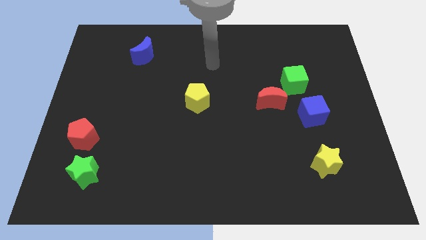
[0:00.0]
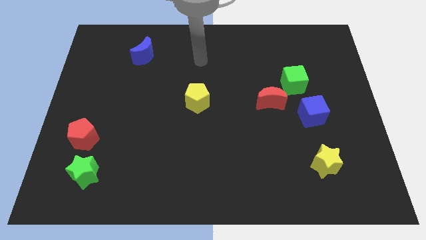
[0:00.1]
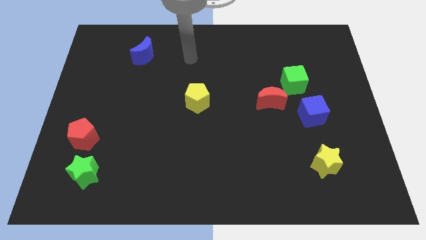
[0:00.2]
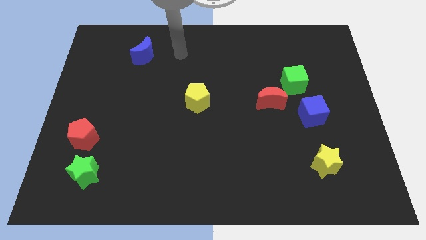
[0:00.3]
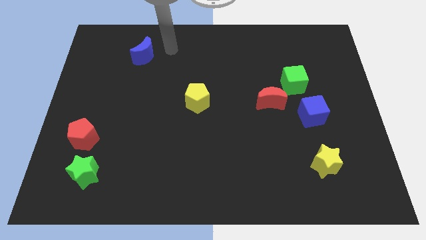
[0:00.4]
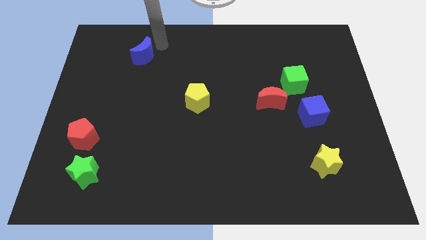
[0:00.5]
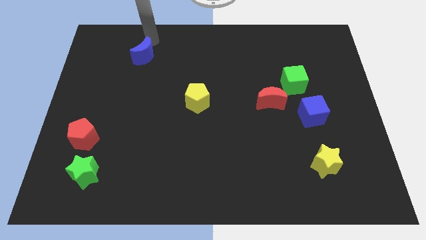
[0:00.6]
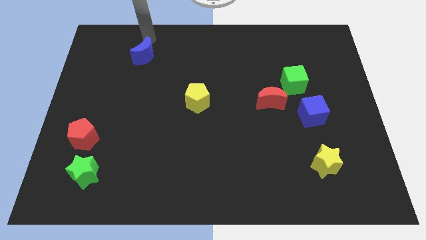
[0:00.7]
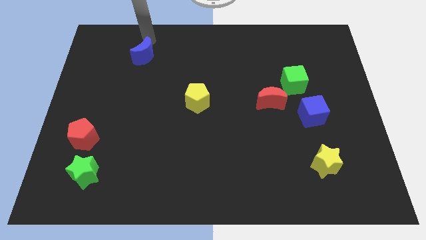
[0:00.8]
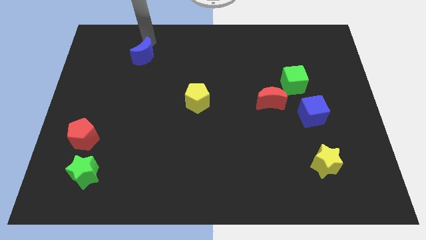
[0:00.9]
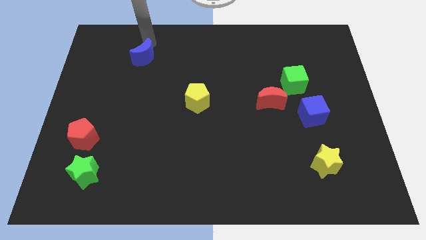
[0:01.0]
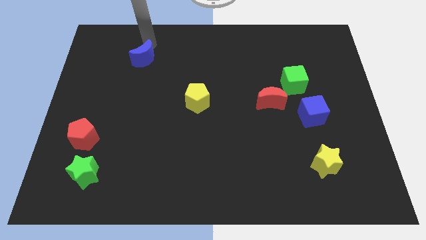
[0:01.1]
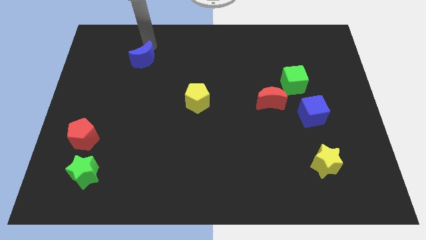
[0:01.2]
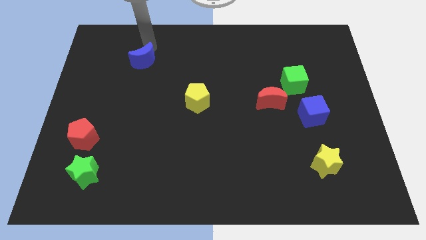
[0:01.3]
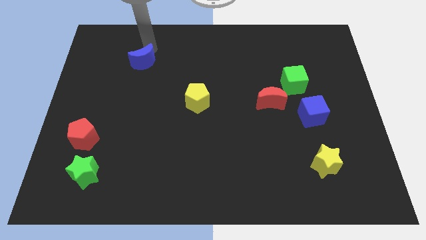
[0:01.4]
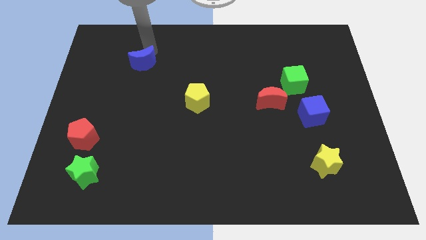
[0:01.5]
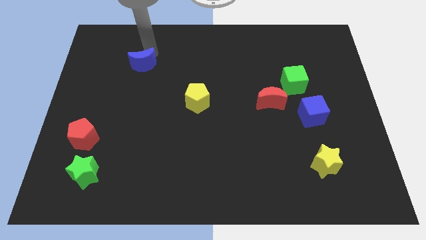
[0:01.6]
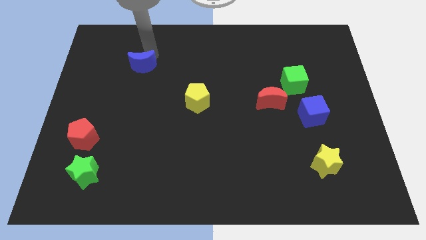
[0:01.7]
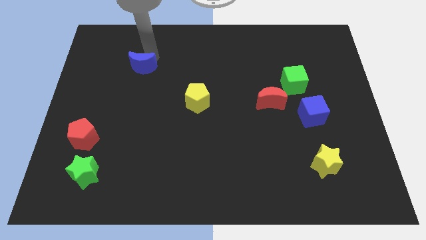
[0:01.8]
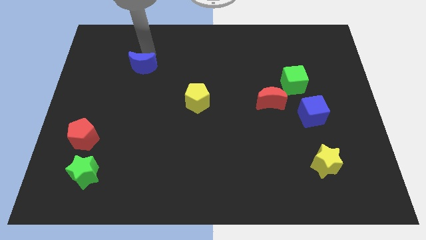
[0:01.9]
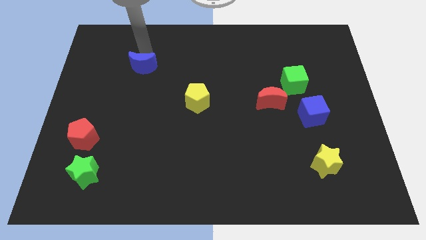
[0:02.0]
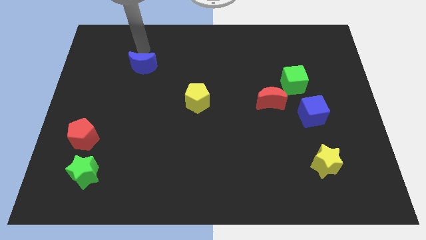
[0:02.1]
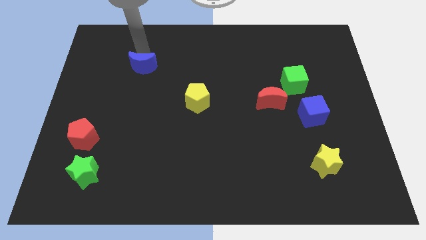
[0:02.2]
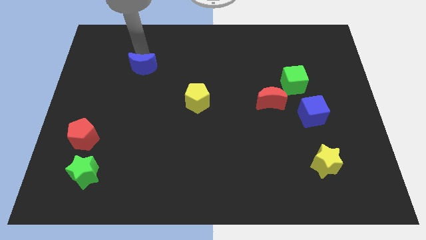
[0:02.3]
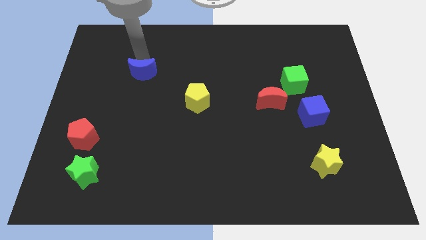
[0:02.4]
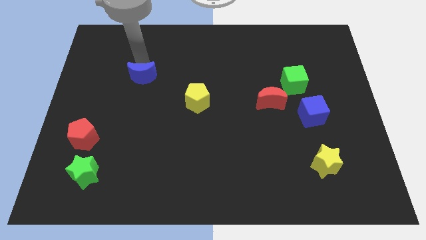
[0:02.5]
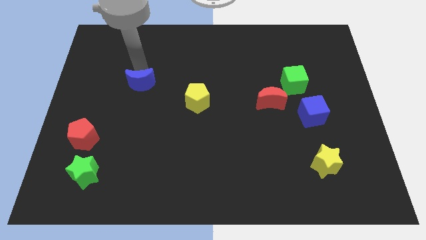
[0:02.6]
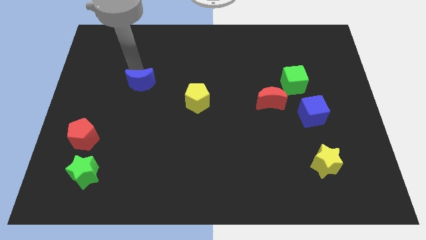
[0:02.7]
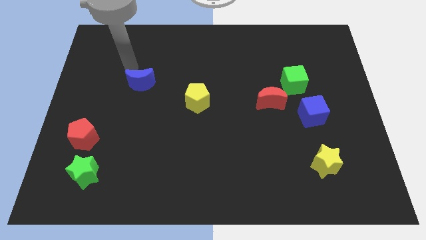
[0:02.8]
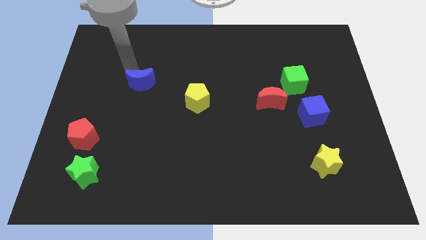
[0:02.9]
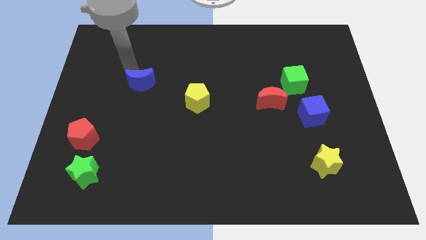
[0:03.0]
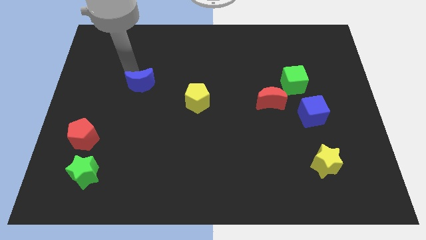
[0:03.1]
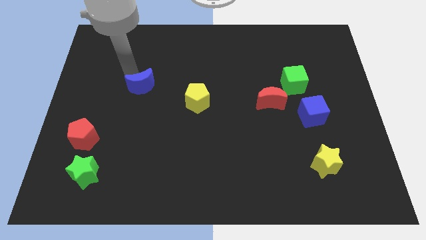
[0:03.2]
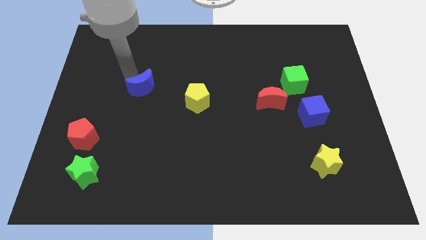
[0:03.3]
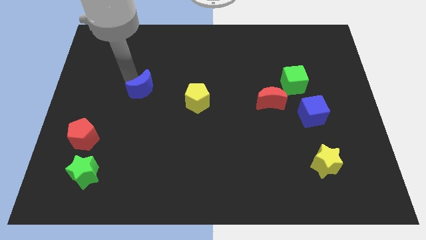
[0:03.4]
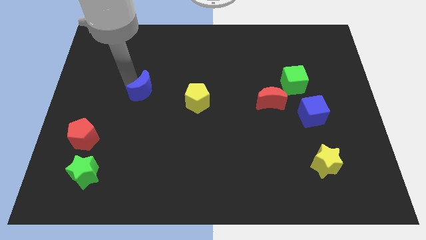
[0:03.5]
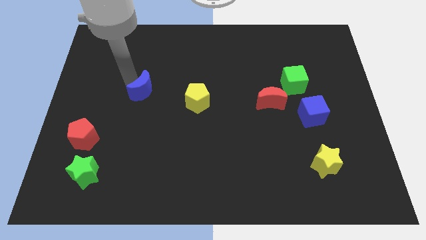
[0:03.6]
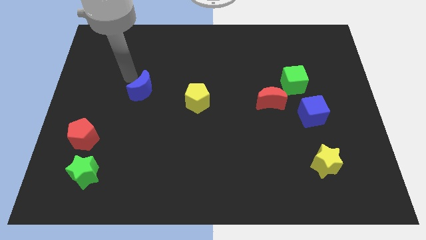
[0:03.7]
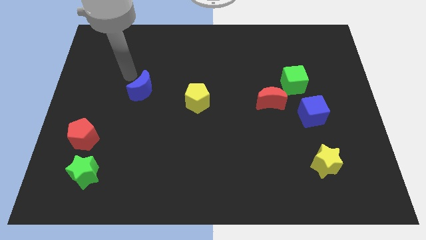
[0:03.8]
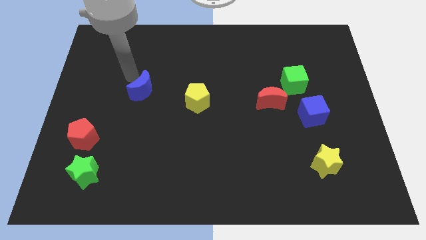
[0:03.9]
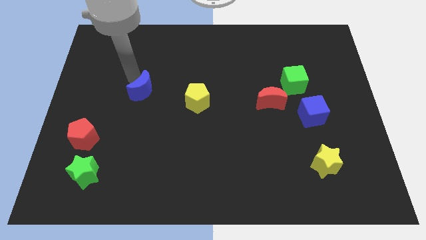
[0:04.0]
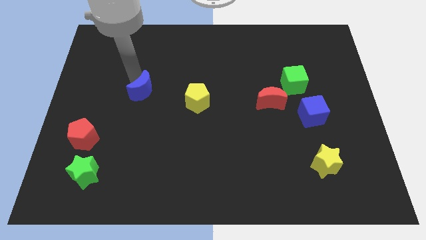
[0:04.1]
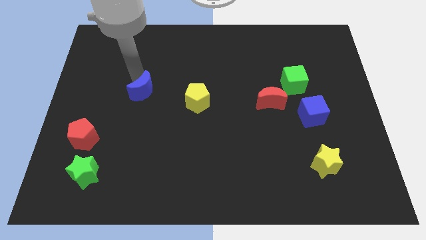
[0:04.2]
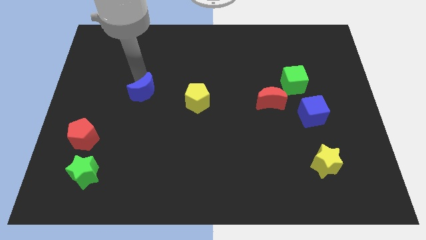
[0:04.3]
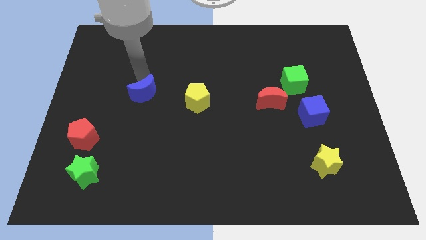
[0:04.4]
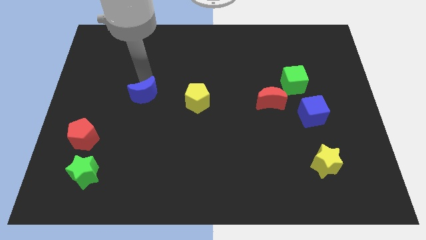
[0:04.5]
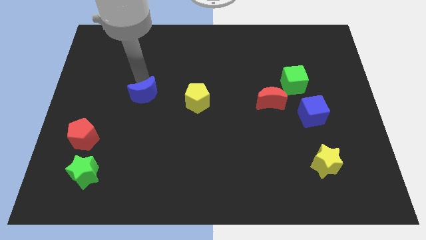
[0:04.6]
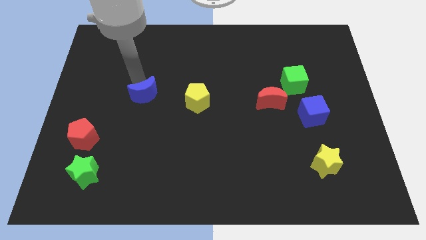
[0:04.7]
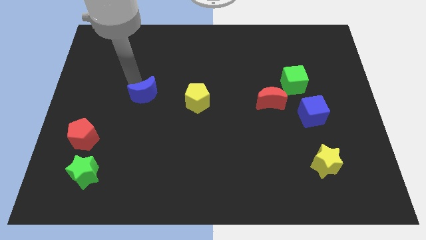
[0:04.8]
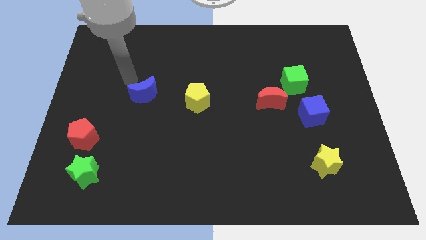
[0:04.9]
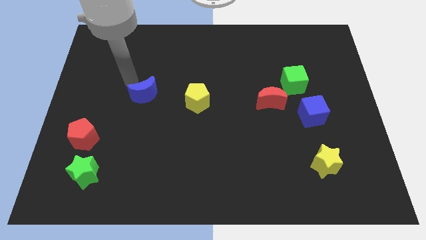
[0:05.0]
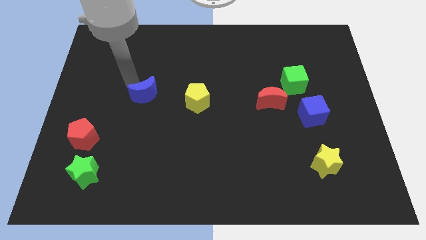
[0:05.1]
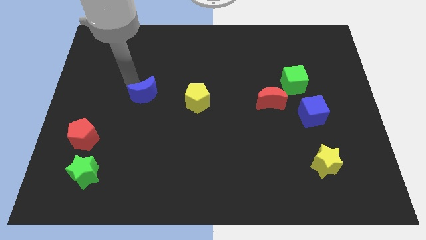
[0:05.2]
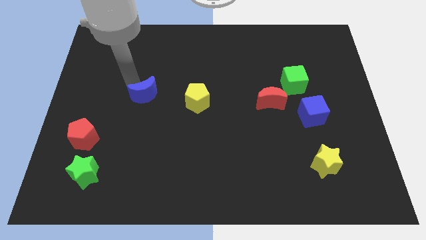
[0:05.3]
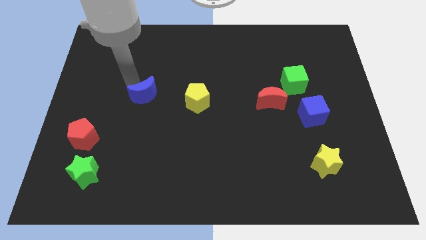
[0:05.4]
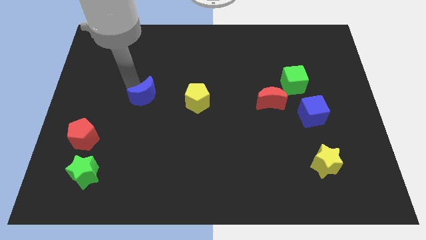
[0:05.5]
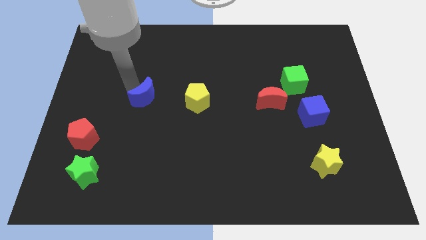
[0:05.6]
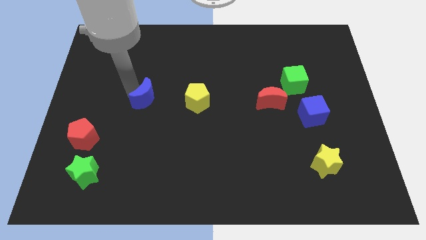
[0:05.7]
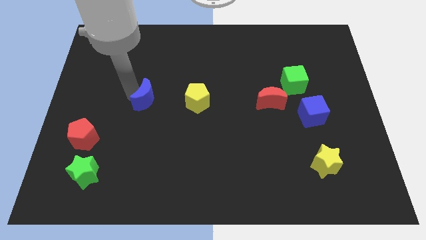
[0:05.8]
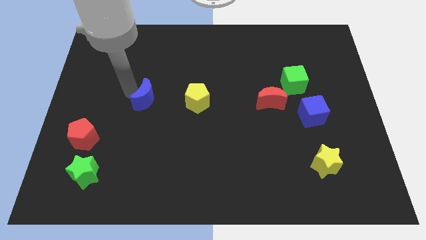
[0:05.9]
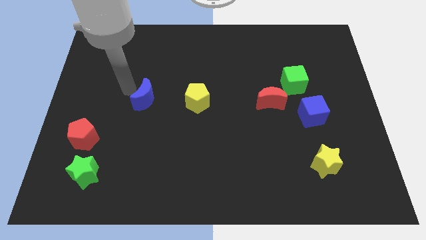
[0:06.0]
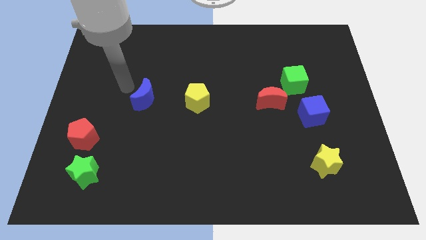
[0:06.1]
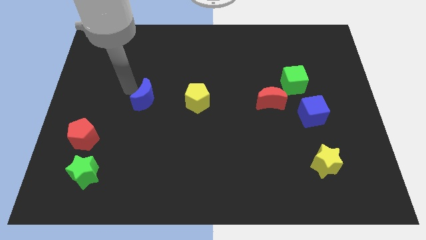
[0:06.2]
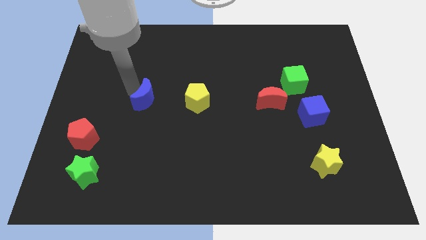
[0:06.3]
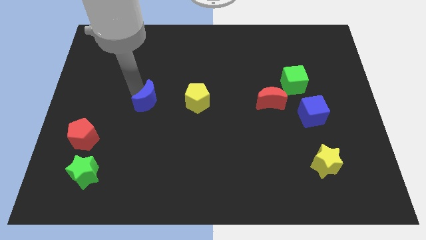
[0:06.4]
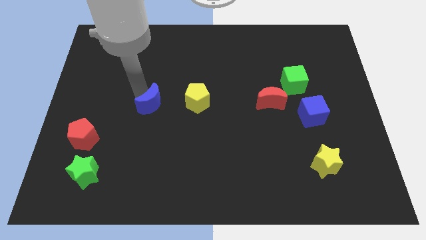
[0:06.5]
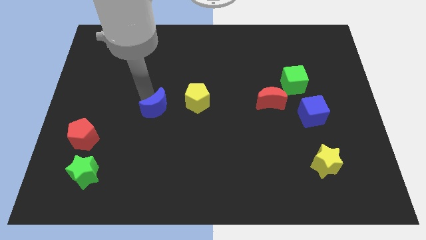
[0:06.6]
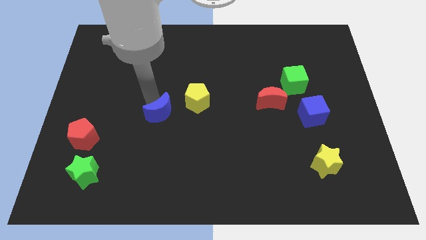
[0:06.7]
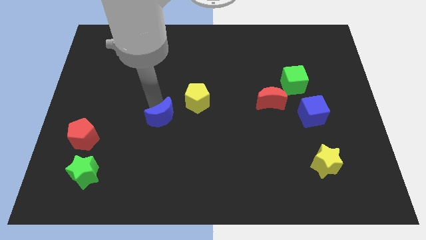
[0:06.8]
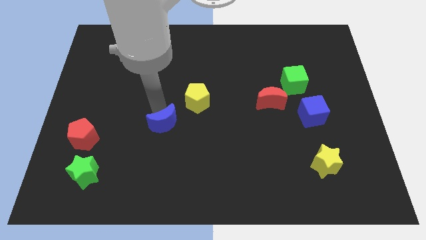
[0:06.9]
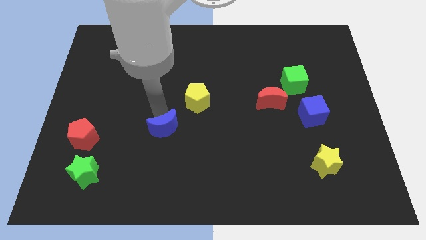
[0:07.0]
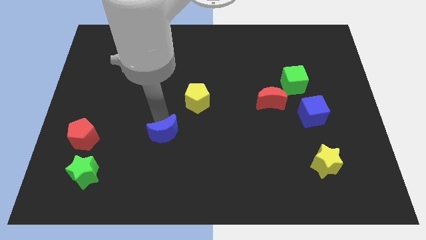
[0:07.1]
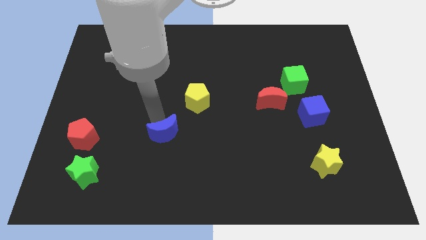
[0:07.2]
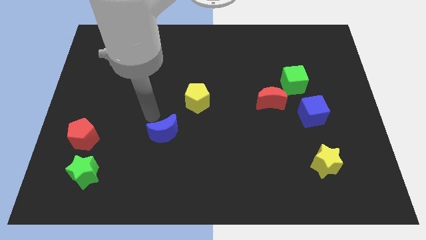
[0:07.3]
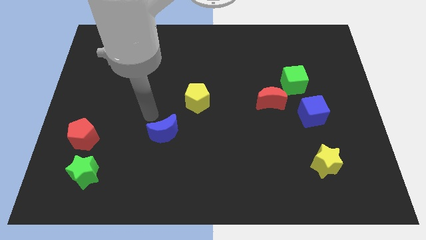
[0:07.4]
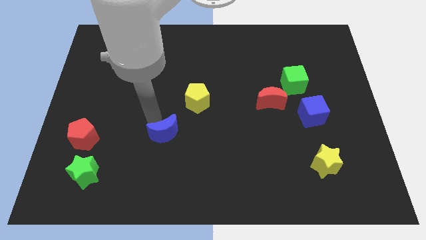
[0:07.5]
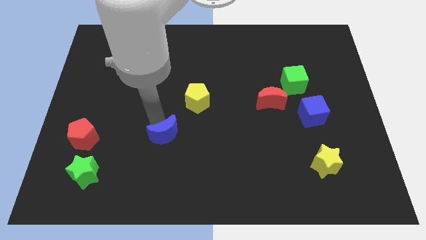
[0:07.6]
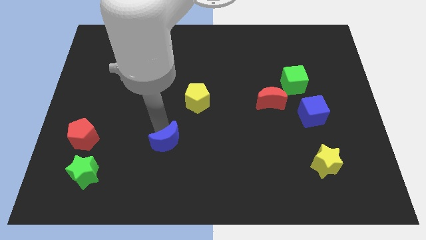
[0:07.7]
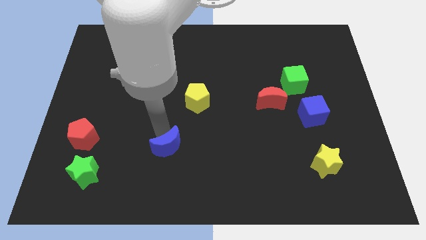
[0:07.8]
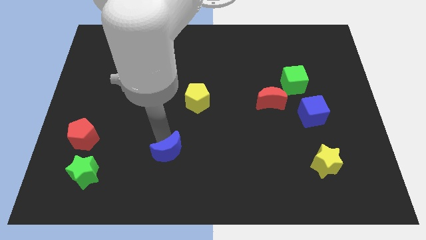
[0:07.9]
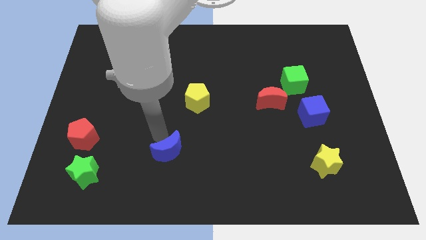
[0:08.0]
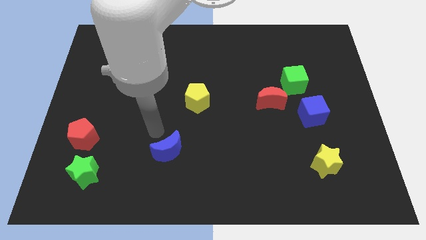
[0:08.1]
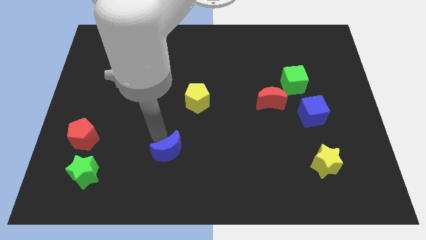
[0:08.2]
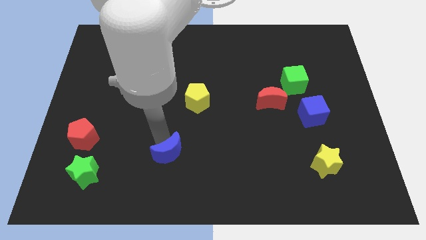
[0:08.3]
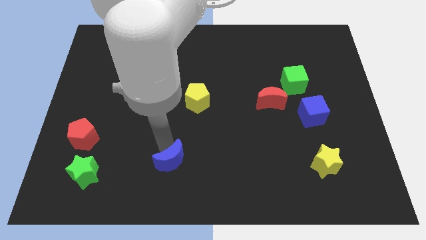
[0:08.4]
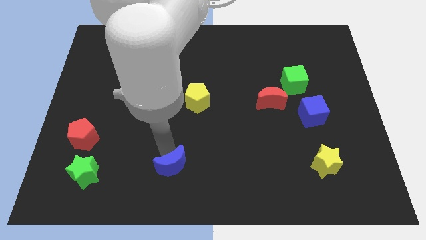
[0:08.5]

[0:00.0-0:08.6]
slide the blue moon to the bottom side
